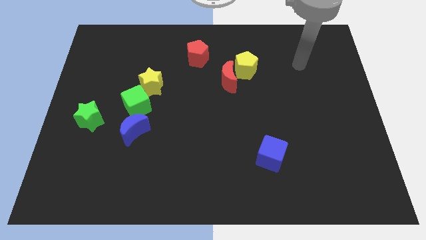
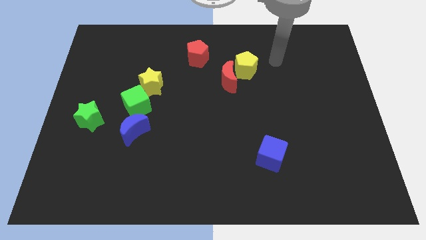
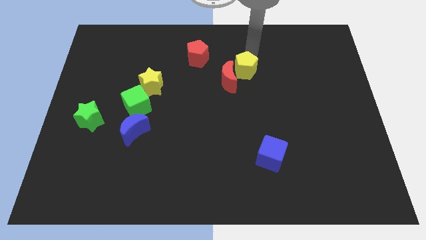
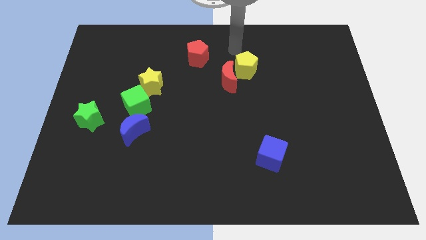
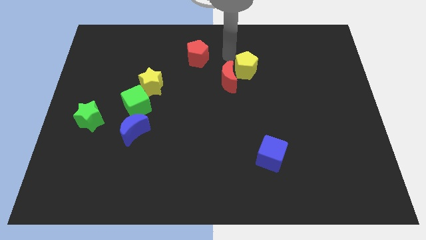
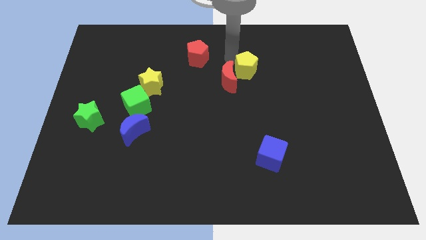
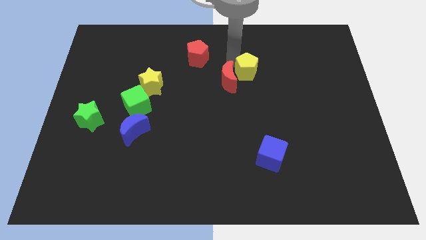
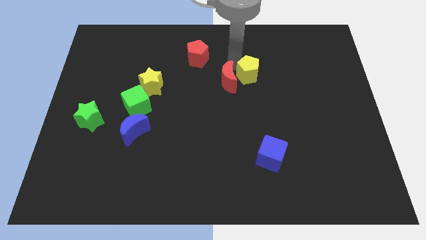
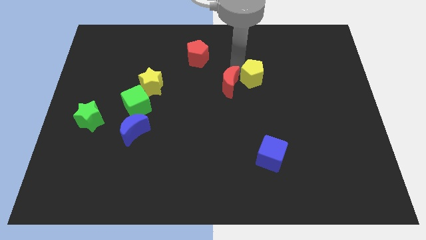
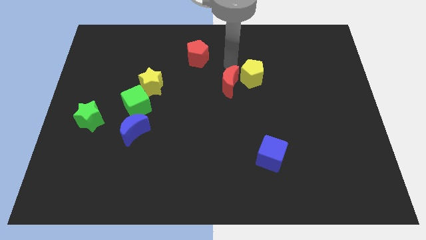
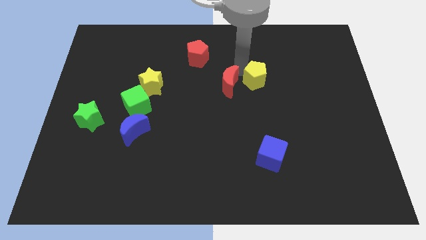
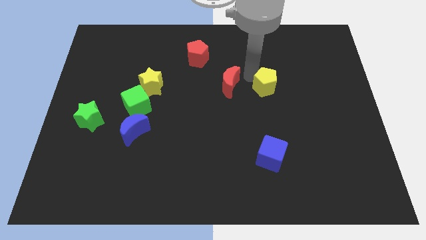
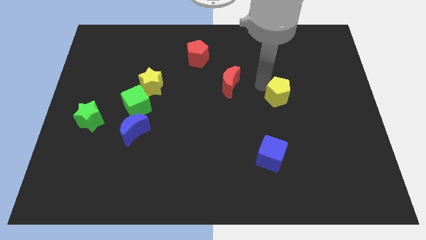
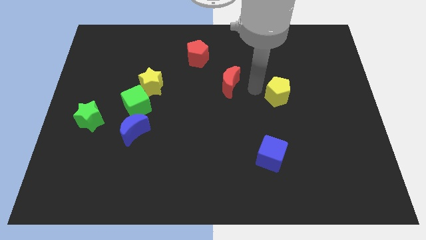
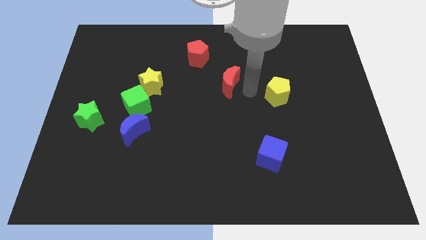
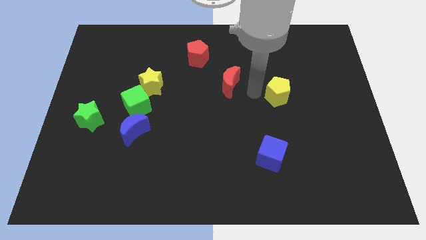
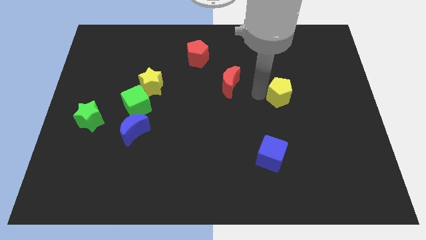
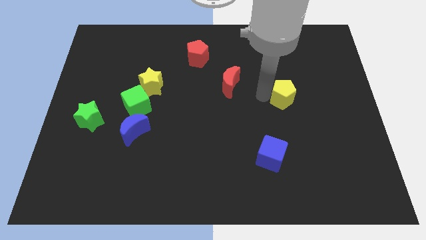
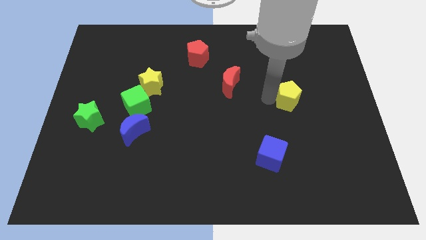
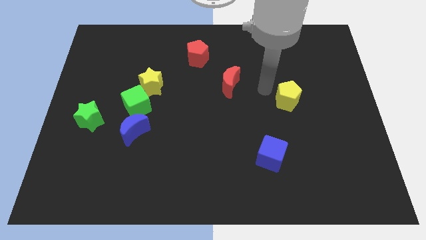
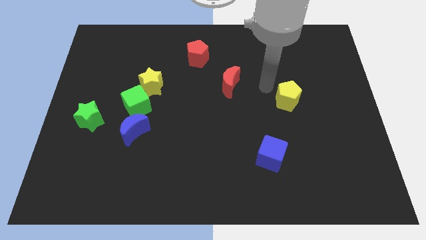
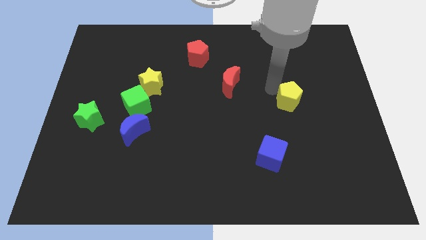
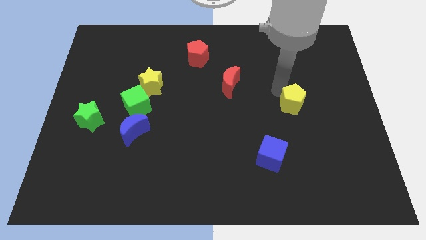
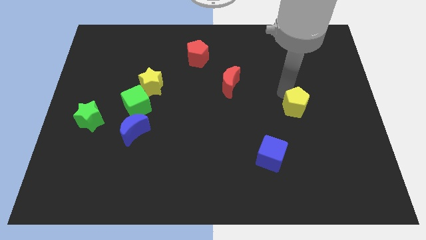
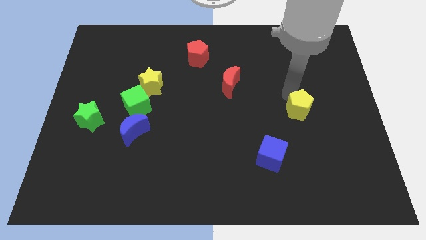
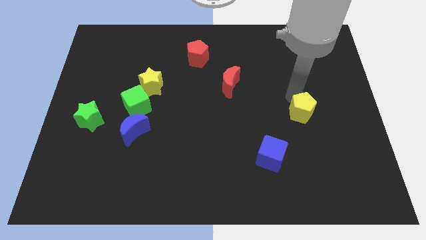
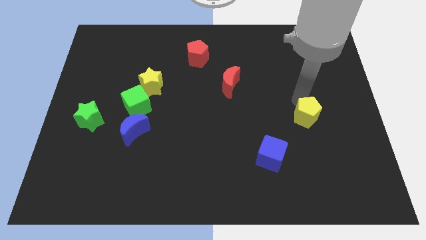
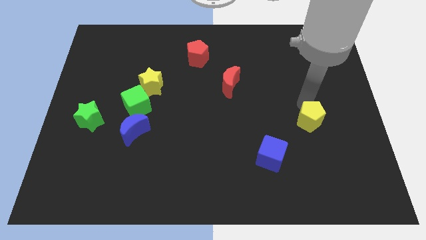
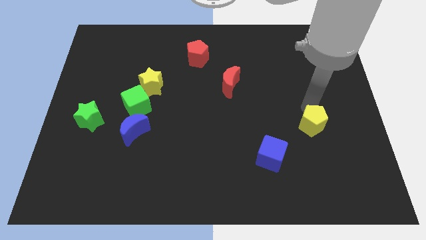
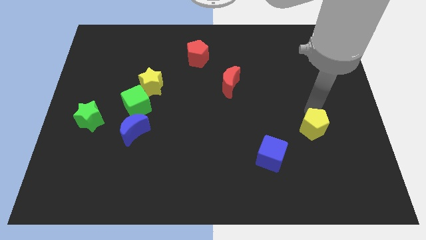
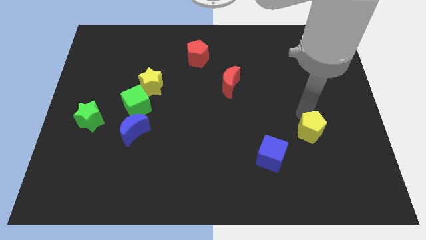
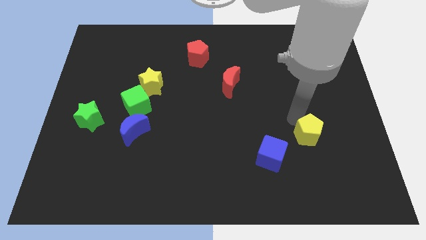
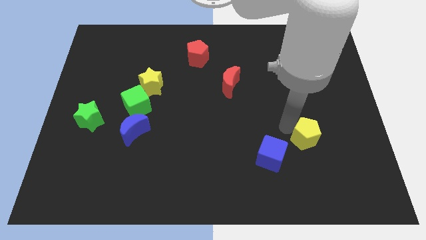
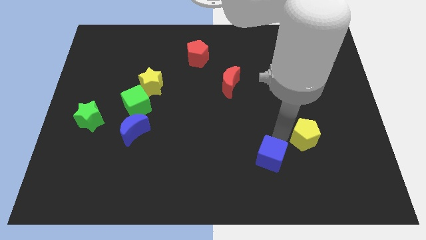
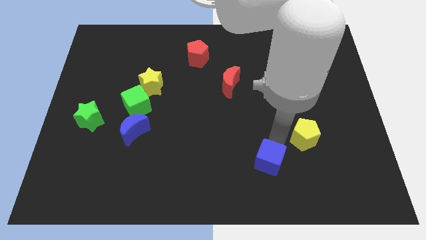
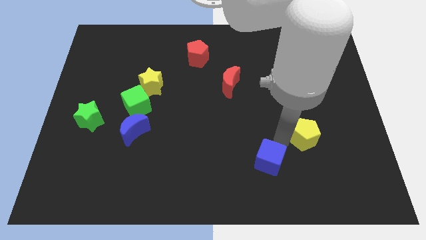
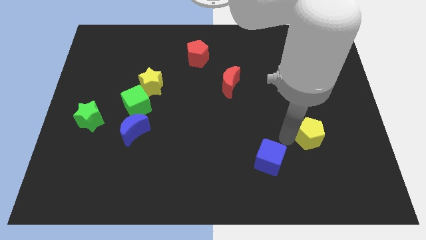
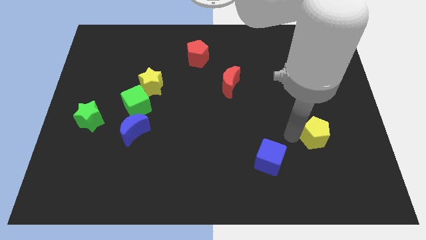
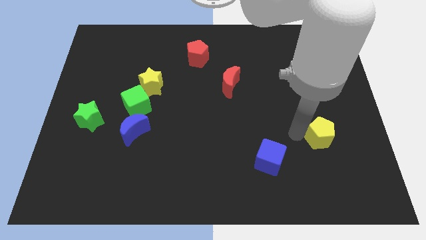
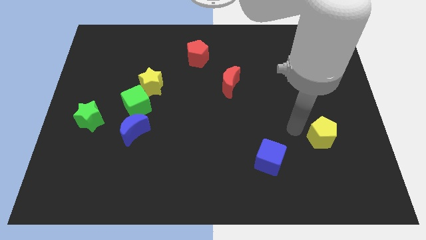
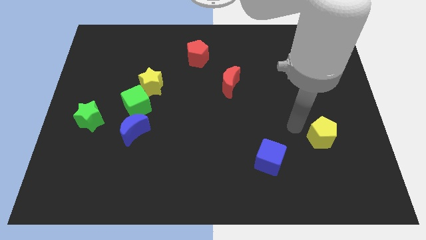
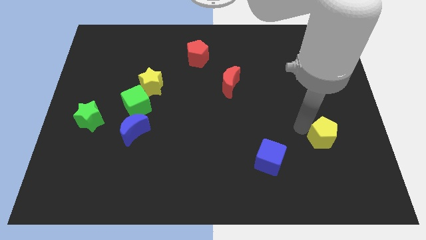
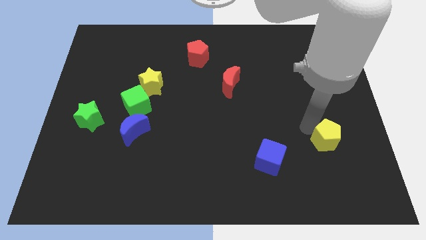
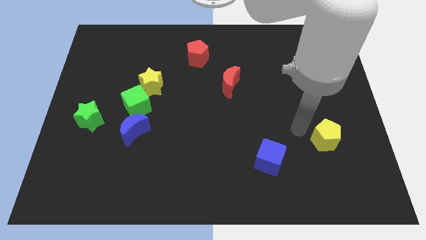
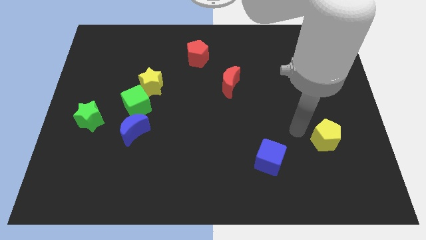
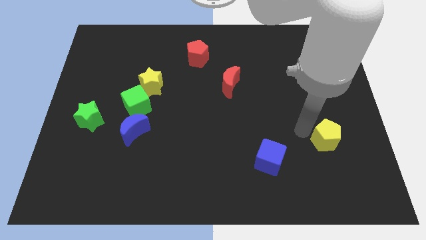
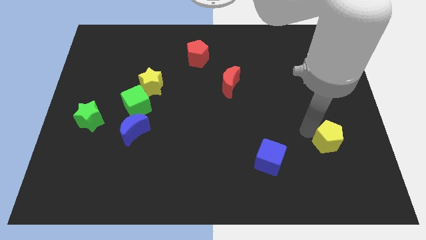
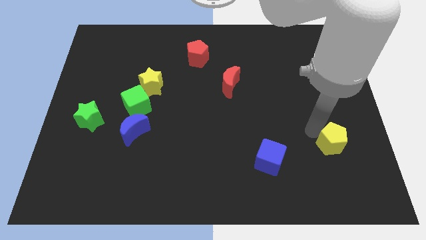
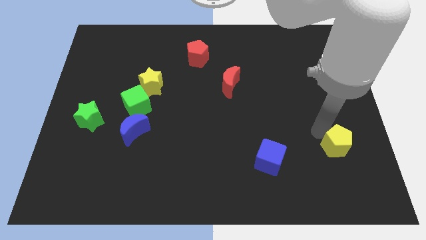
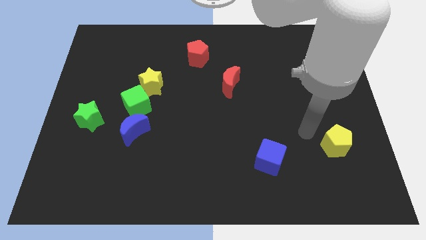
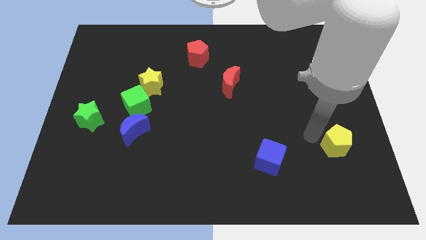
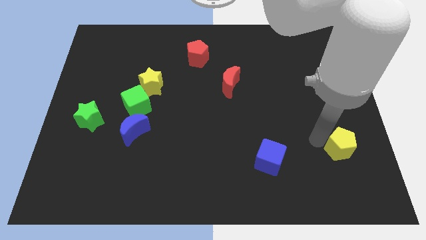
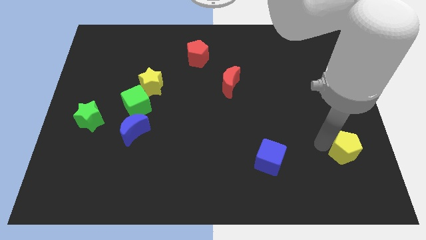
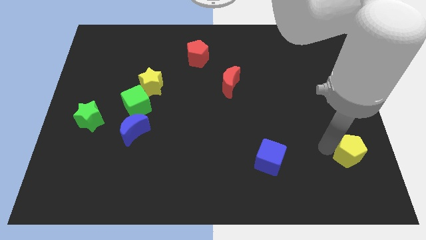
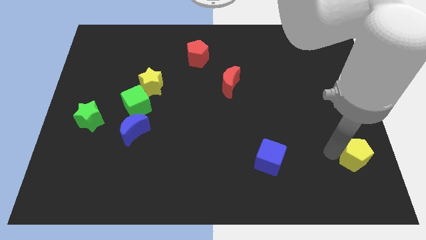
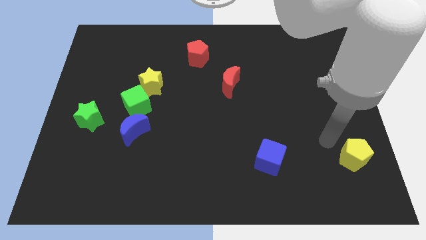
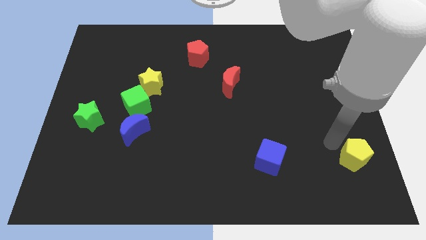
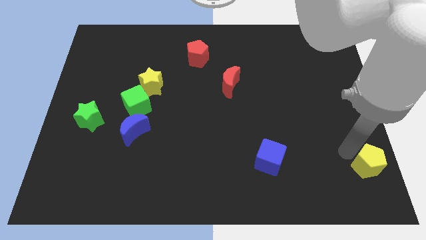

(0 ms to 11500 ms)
move the yellow pentagon to the bottom right corner
